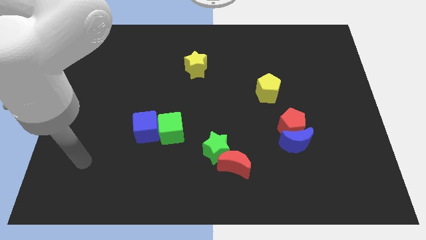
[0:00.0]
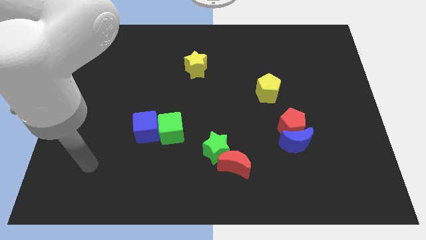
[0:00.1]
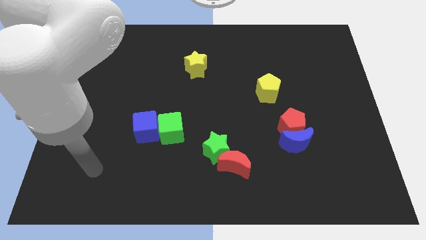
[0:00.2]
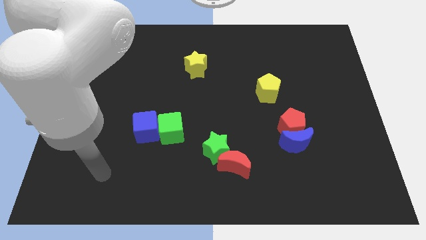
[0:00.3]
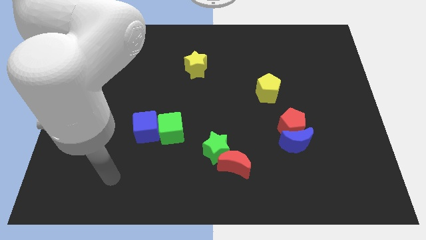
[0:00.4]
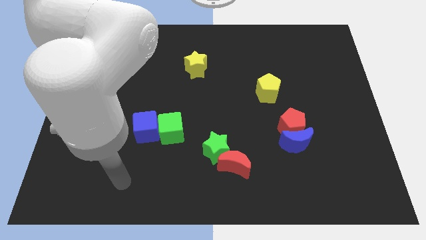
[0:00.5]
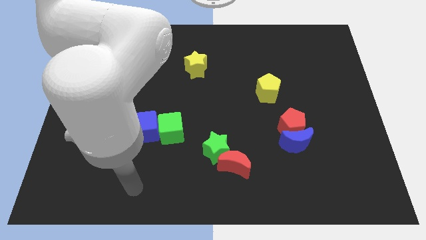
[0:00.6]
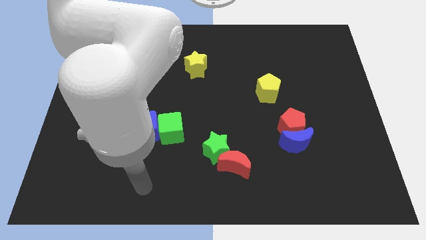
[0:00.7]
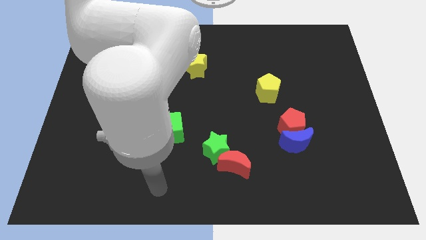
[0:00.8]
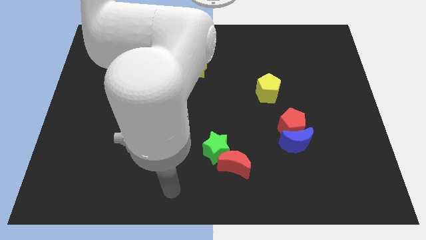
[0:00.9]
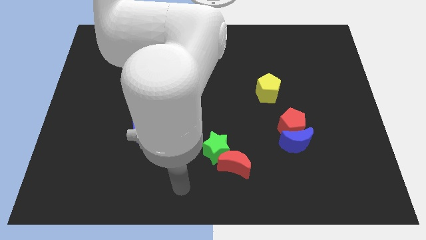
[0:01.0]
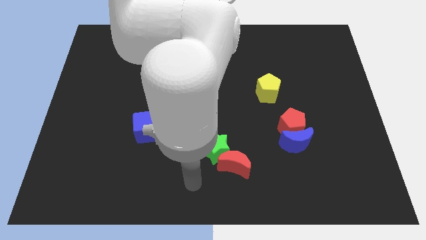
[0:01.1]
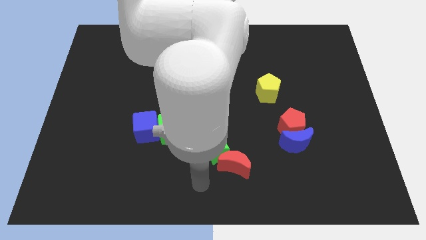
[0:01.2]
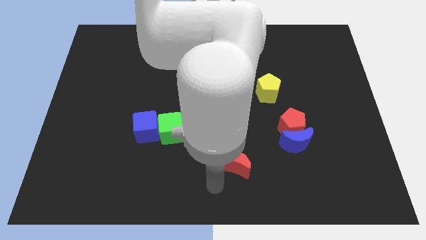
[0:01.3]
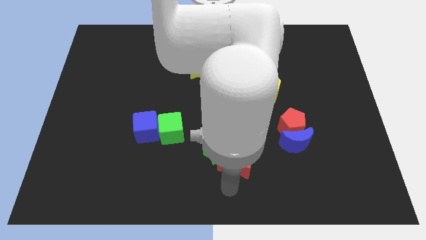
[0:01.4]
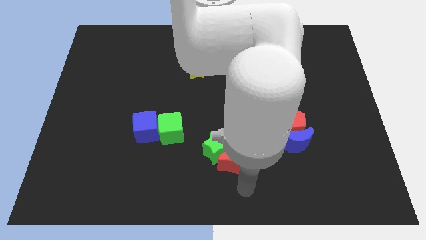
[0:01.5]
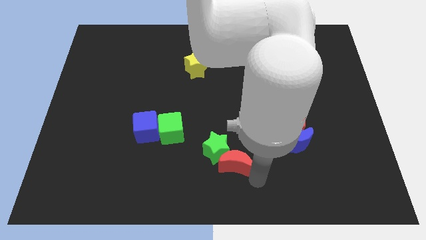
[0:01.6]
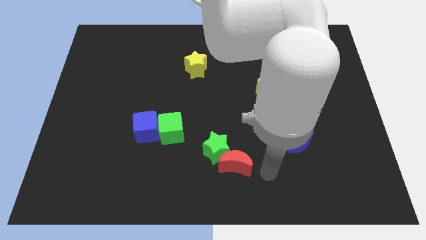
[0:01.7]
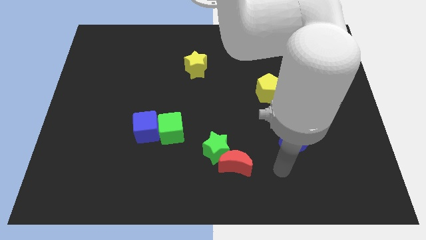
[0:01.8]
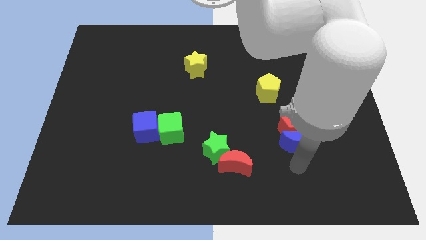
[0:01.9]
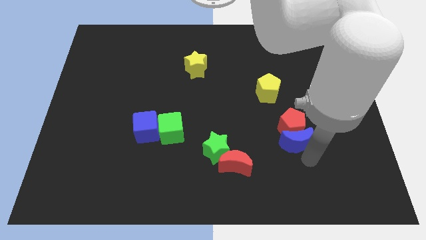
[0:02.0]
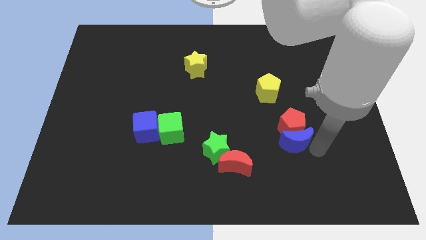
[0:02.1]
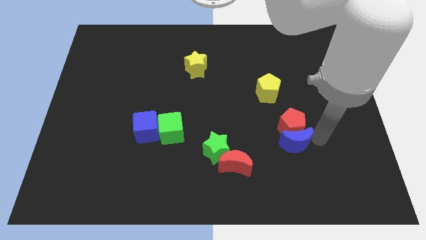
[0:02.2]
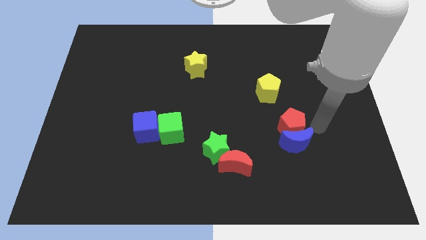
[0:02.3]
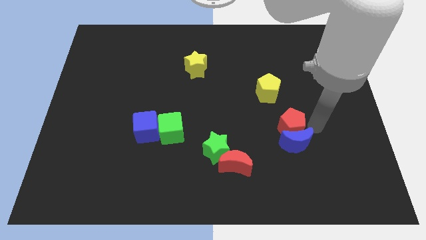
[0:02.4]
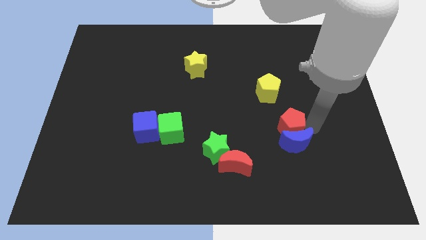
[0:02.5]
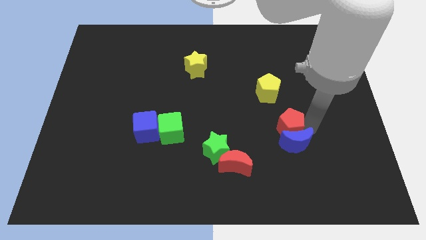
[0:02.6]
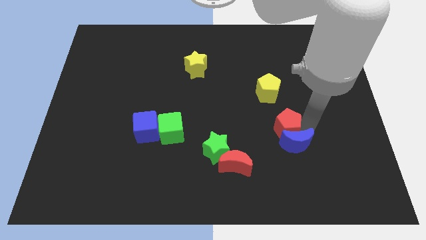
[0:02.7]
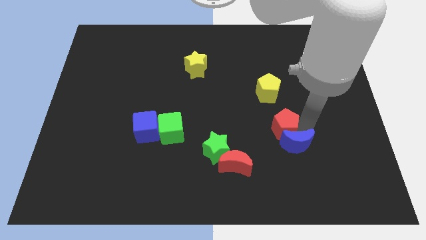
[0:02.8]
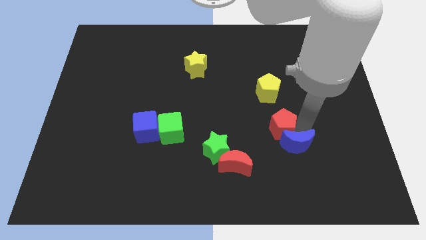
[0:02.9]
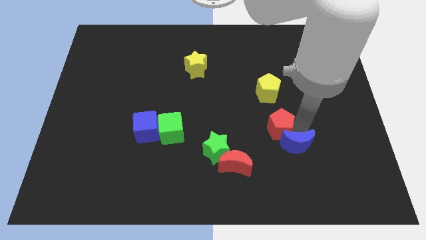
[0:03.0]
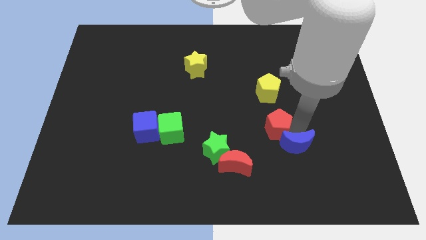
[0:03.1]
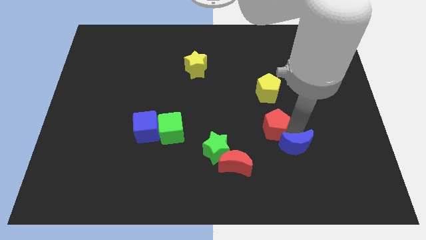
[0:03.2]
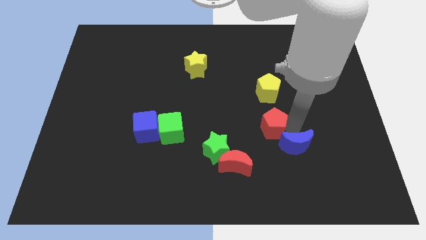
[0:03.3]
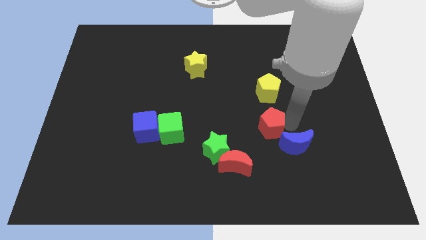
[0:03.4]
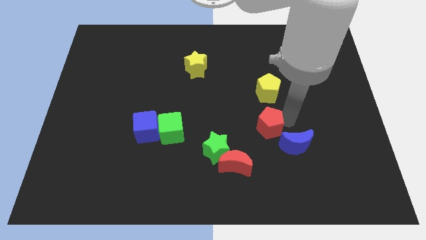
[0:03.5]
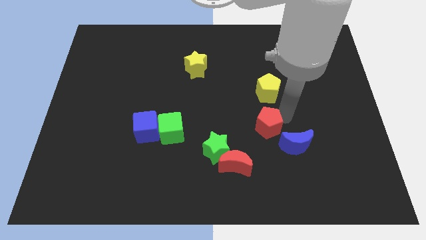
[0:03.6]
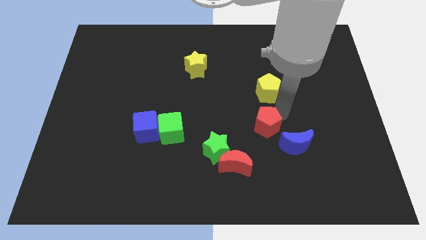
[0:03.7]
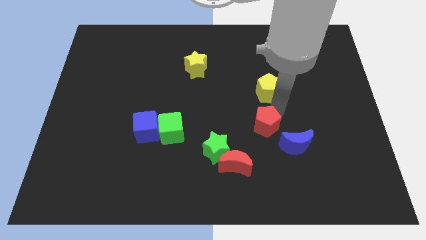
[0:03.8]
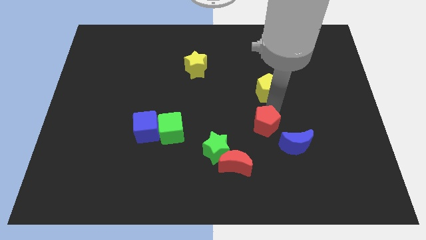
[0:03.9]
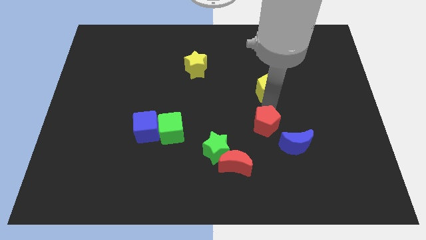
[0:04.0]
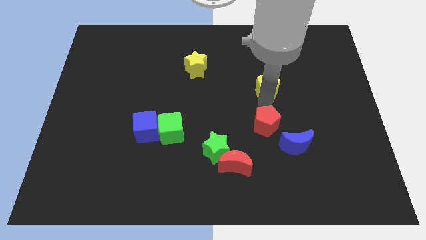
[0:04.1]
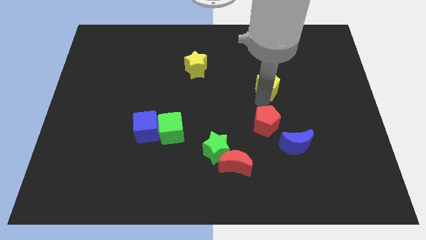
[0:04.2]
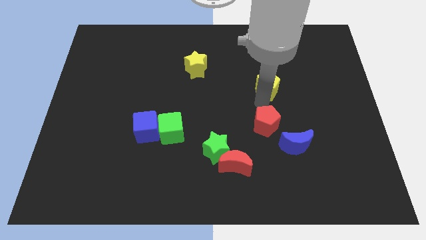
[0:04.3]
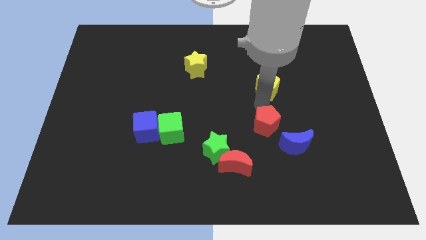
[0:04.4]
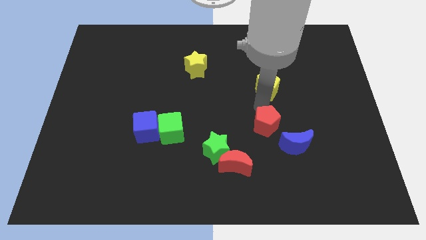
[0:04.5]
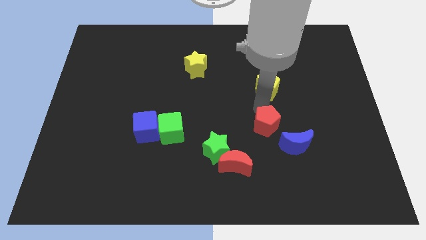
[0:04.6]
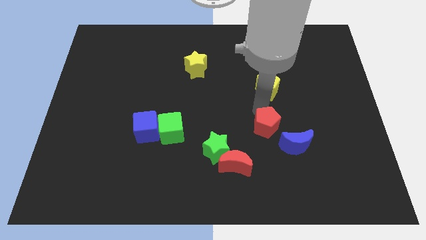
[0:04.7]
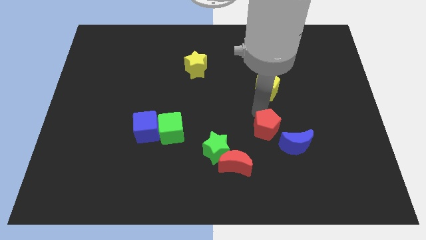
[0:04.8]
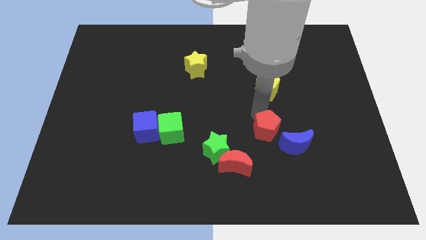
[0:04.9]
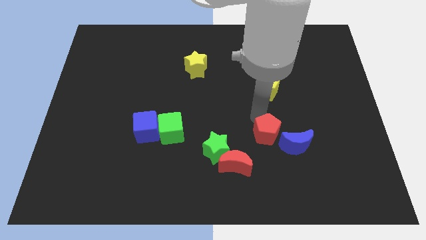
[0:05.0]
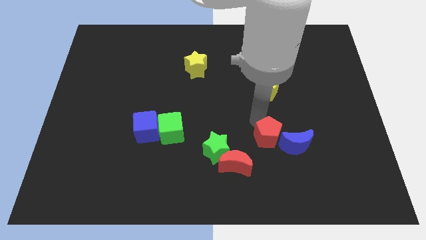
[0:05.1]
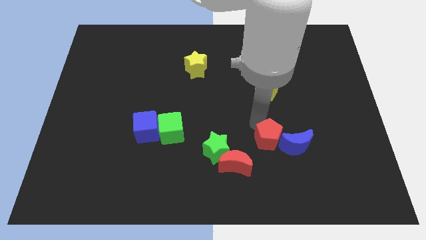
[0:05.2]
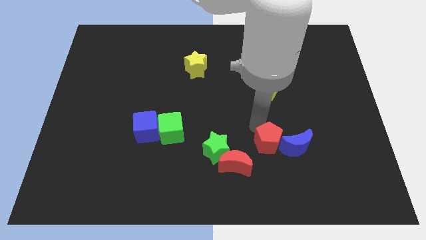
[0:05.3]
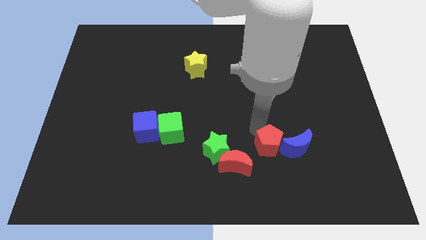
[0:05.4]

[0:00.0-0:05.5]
move the red pentagon to the bottom left side of the blue moon

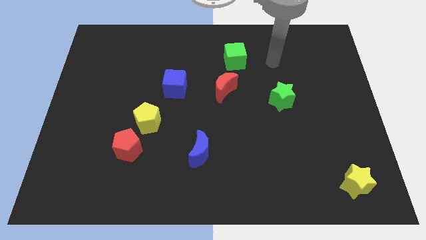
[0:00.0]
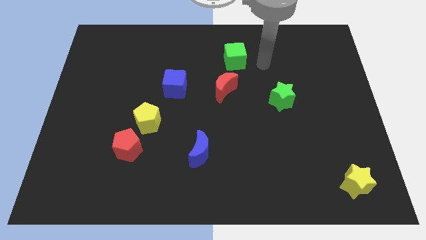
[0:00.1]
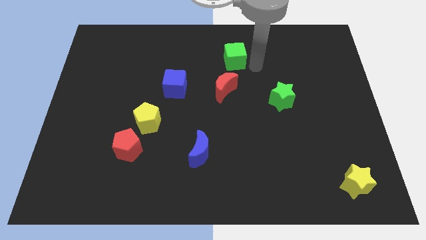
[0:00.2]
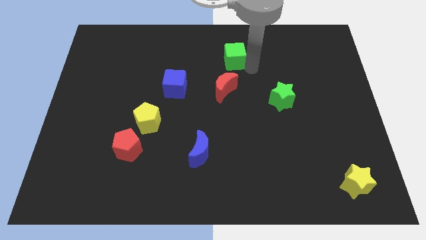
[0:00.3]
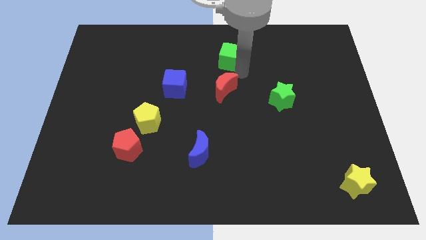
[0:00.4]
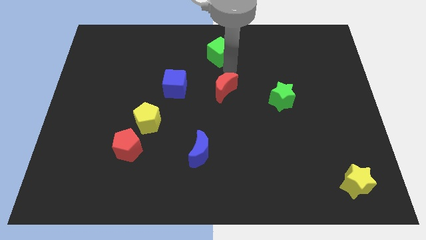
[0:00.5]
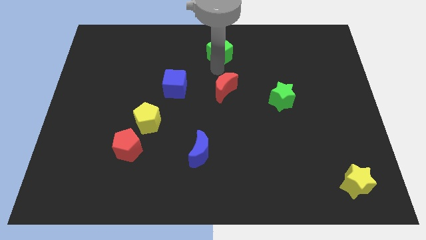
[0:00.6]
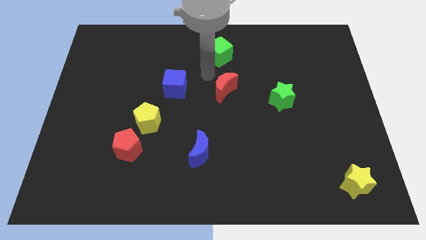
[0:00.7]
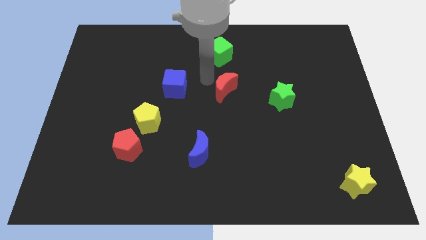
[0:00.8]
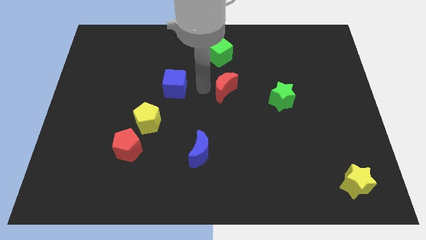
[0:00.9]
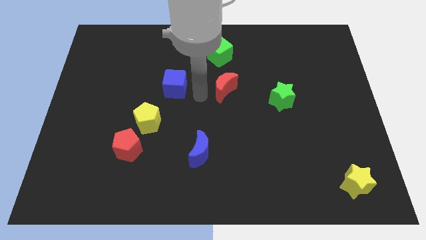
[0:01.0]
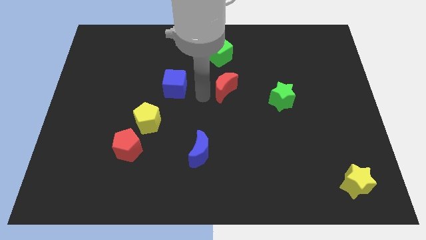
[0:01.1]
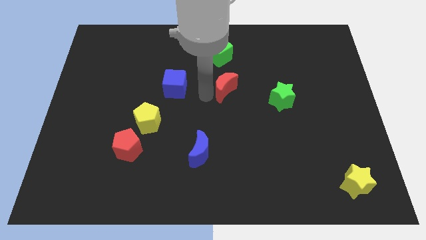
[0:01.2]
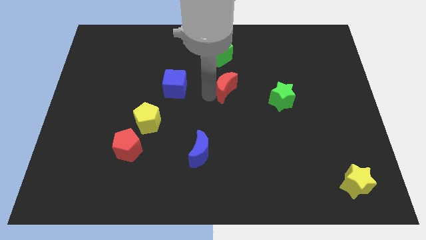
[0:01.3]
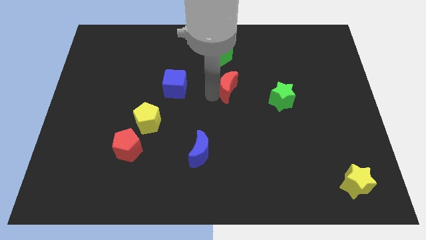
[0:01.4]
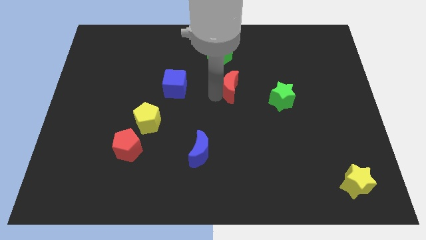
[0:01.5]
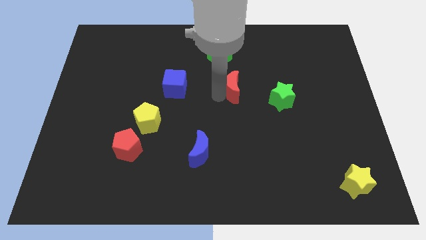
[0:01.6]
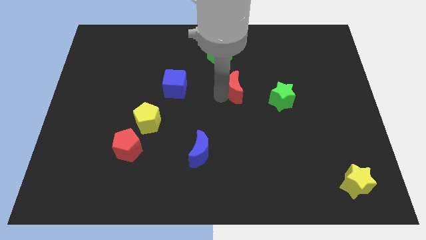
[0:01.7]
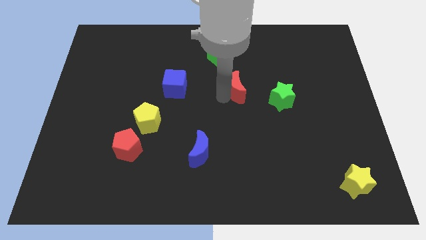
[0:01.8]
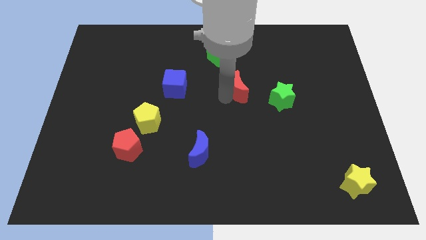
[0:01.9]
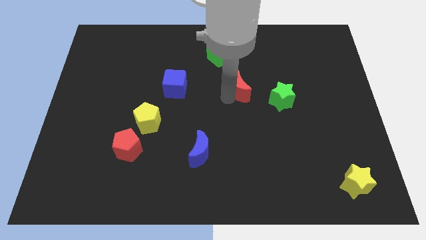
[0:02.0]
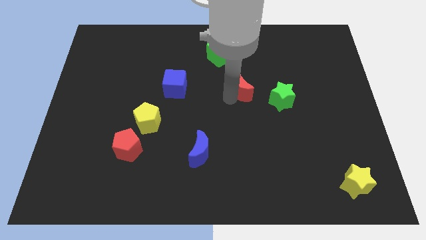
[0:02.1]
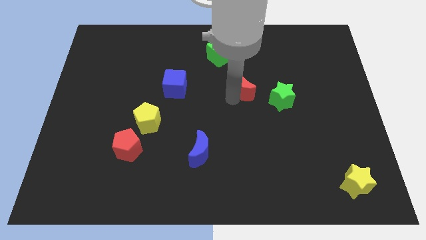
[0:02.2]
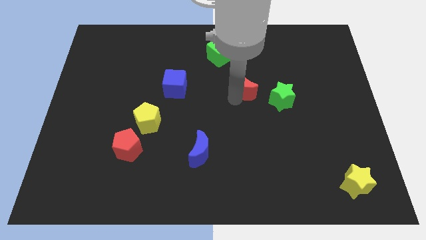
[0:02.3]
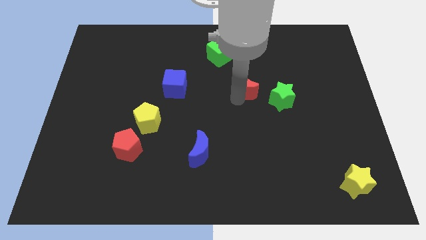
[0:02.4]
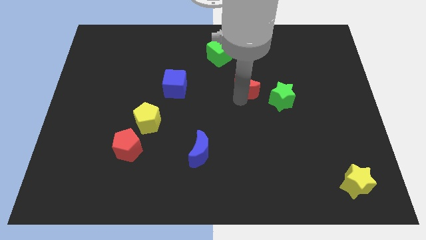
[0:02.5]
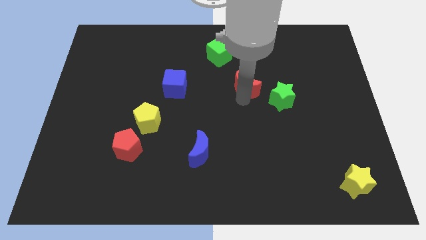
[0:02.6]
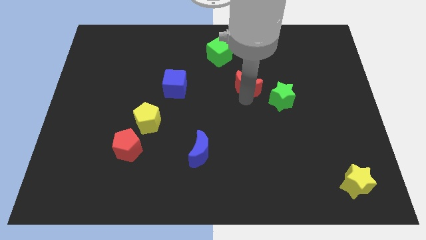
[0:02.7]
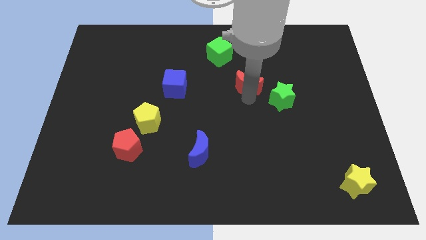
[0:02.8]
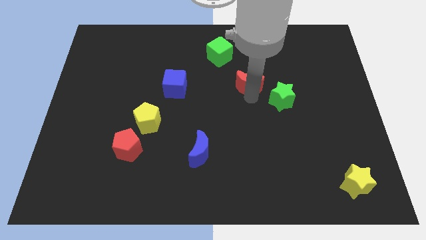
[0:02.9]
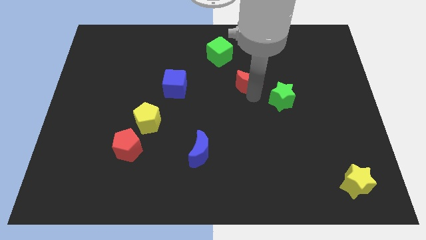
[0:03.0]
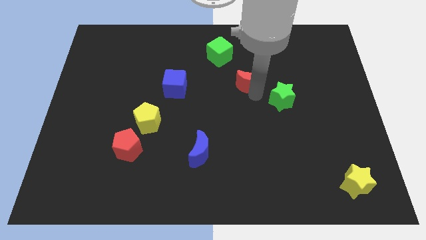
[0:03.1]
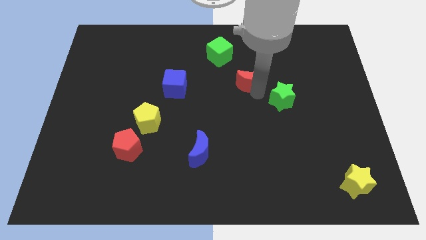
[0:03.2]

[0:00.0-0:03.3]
slide the red moon to the bottom right of the green cube
